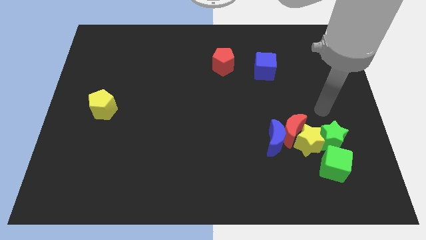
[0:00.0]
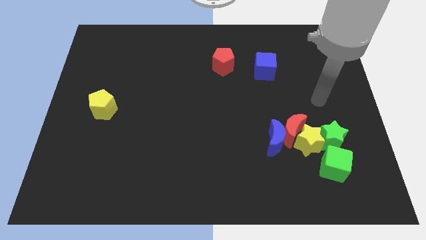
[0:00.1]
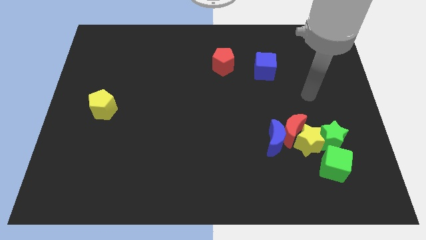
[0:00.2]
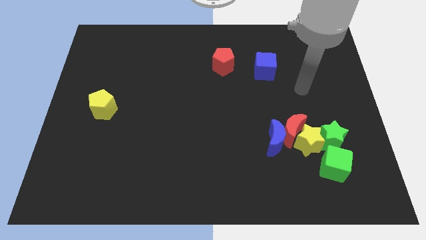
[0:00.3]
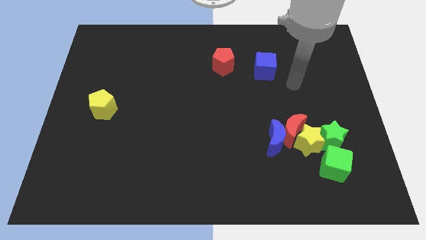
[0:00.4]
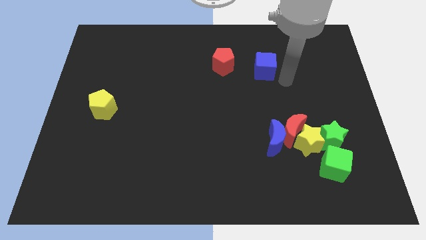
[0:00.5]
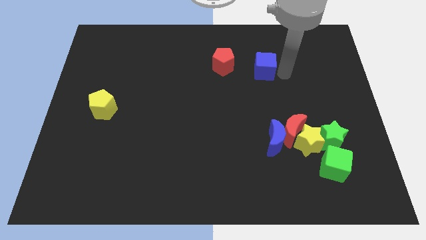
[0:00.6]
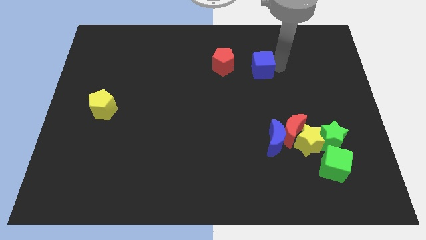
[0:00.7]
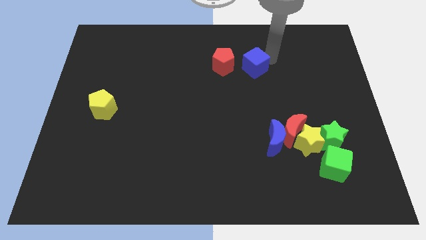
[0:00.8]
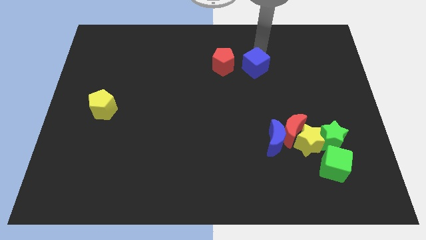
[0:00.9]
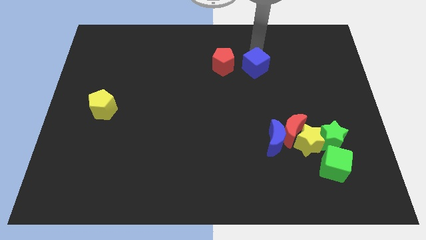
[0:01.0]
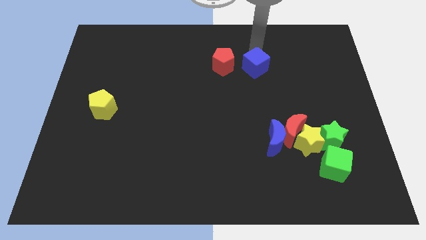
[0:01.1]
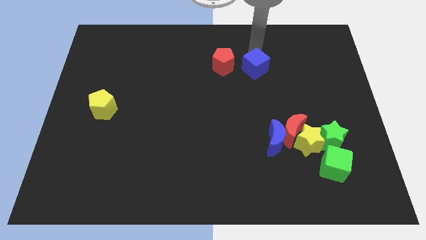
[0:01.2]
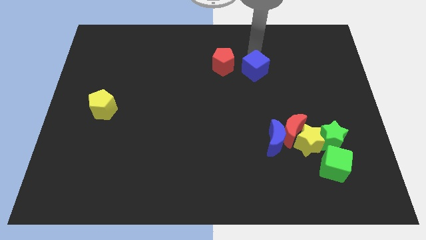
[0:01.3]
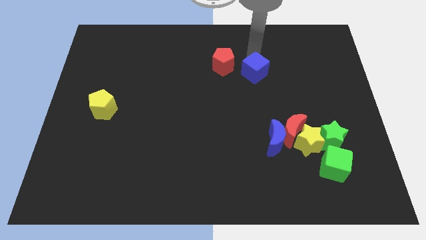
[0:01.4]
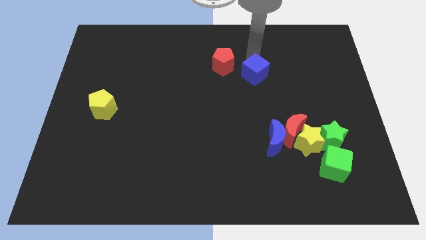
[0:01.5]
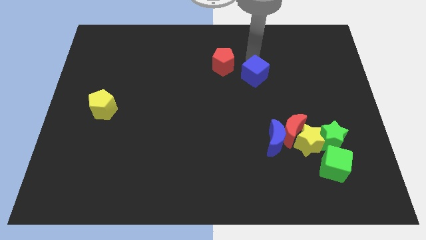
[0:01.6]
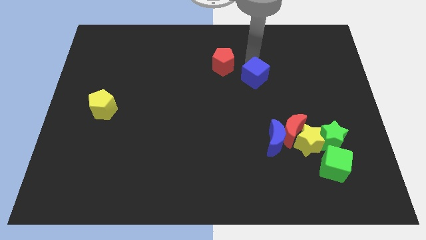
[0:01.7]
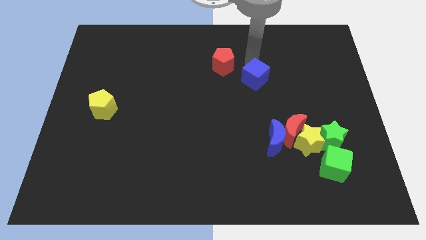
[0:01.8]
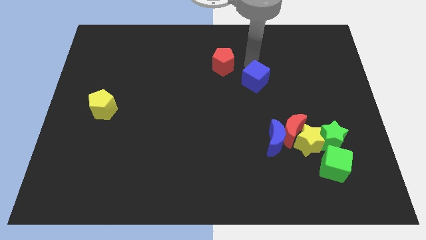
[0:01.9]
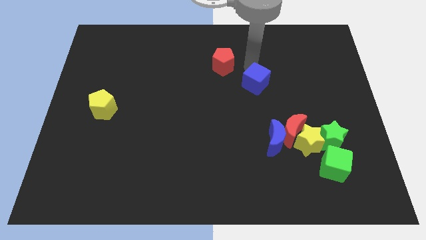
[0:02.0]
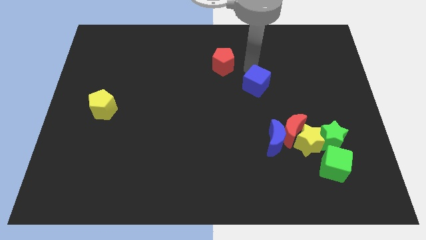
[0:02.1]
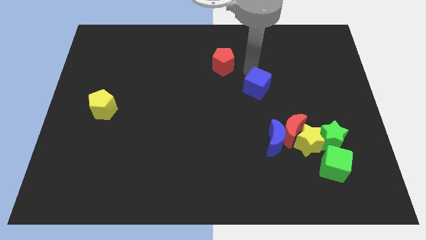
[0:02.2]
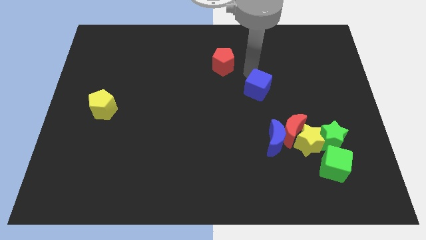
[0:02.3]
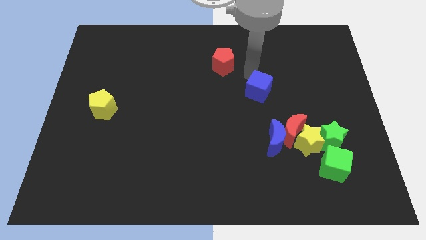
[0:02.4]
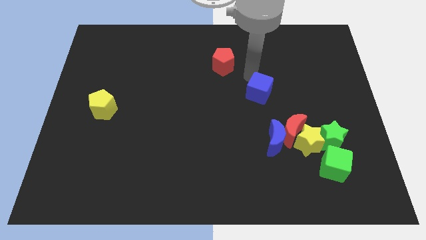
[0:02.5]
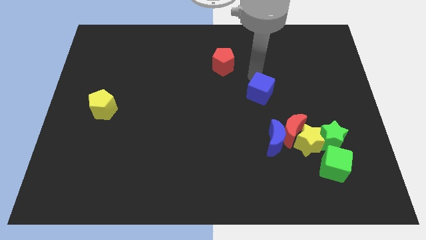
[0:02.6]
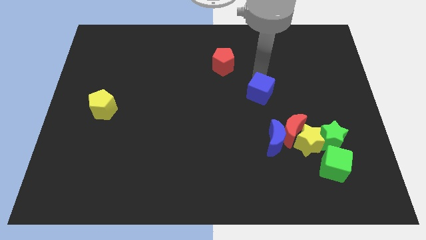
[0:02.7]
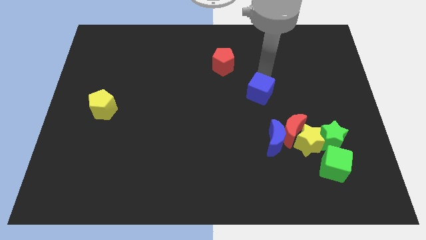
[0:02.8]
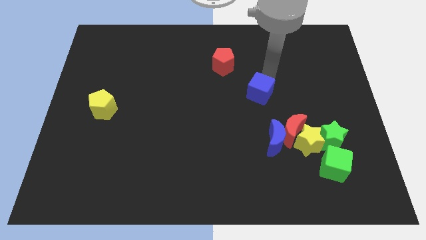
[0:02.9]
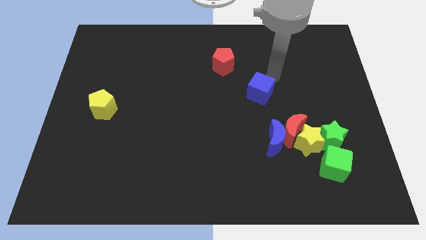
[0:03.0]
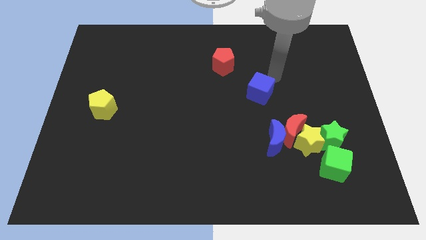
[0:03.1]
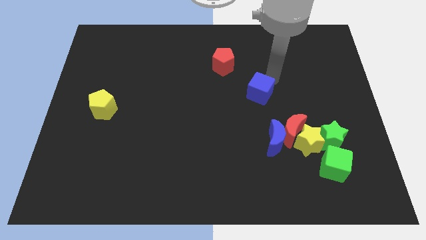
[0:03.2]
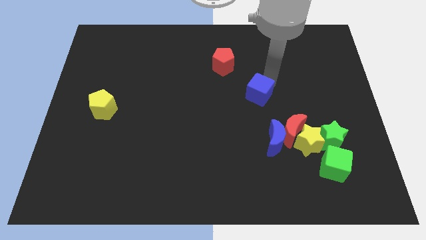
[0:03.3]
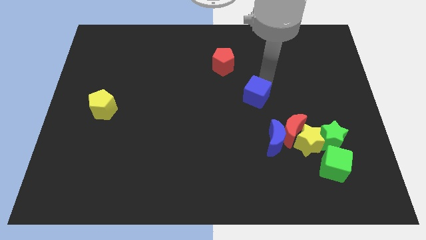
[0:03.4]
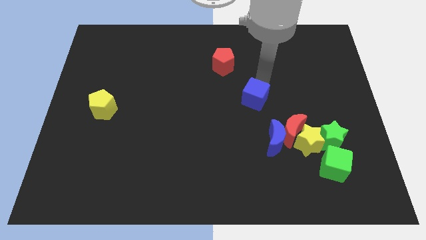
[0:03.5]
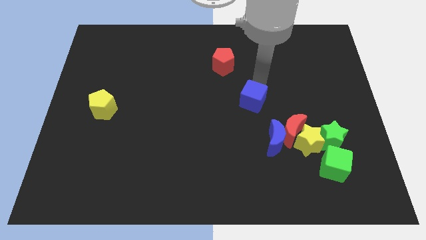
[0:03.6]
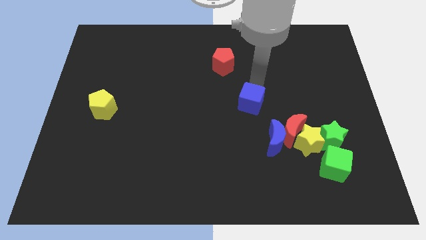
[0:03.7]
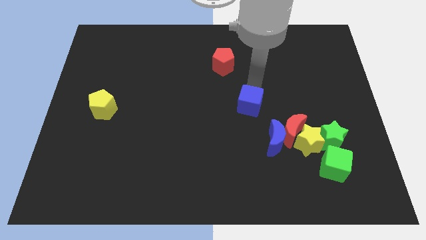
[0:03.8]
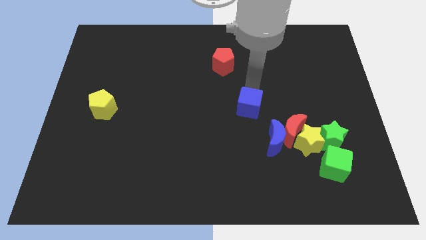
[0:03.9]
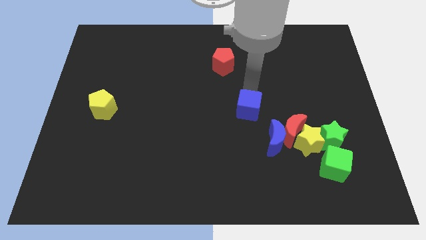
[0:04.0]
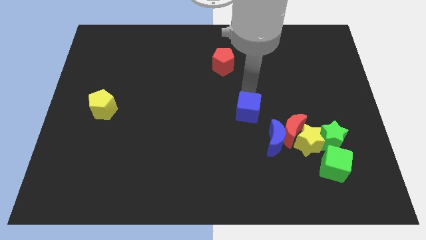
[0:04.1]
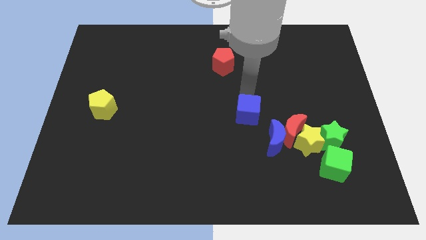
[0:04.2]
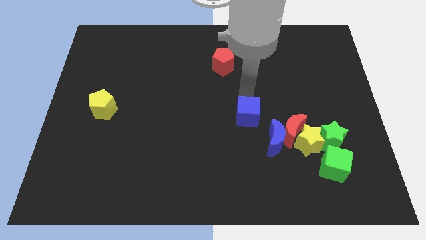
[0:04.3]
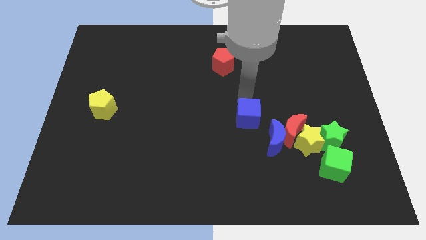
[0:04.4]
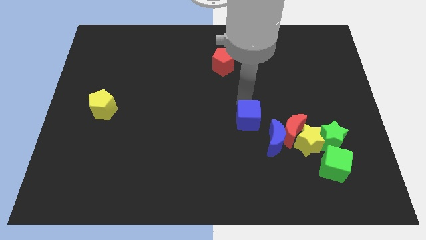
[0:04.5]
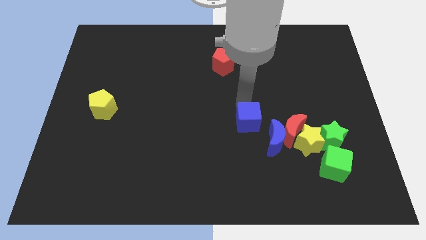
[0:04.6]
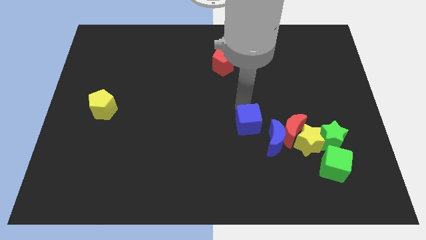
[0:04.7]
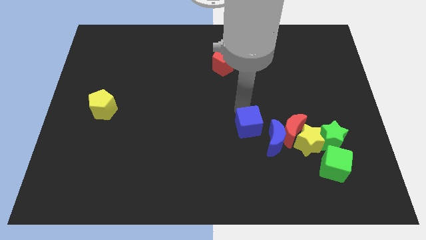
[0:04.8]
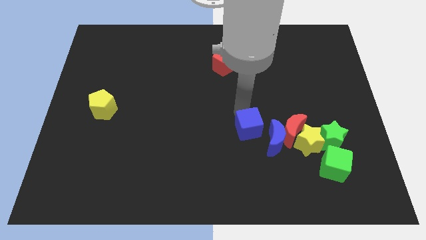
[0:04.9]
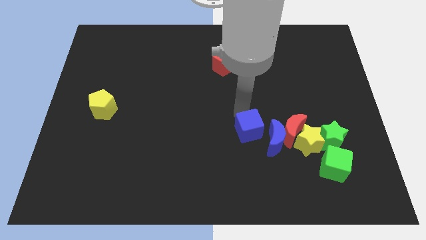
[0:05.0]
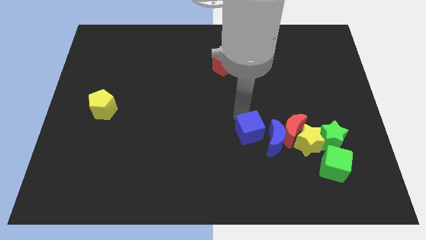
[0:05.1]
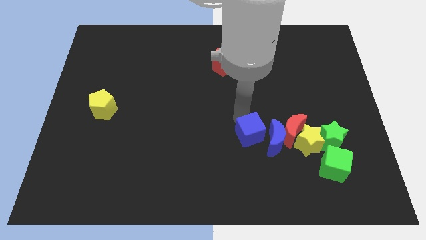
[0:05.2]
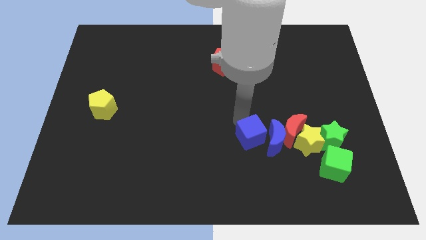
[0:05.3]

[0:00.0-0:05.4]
slide the blue cube diagonally down and to the left of the blue moon

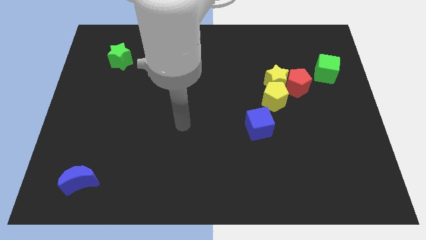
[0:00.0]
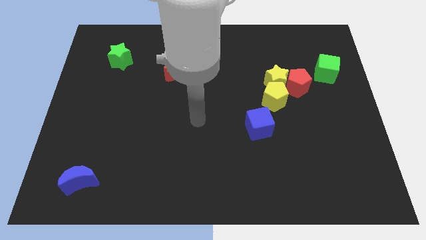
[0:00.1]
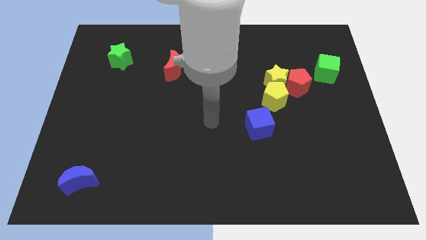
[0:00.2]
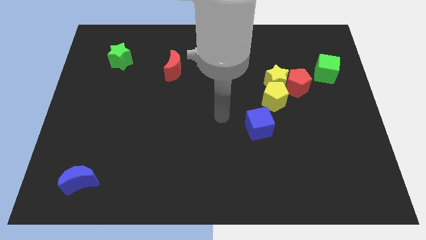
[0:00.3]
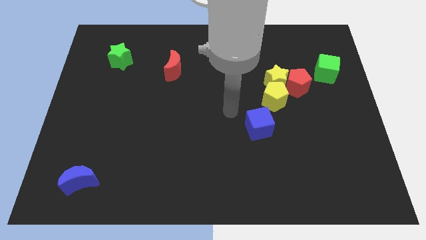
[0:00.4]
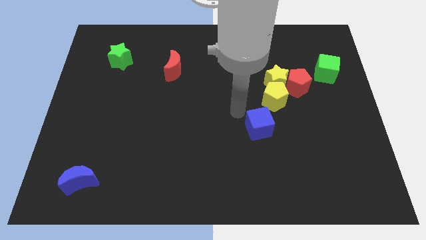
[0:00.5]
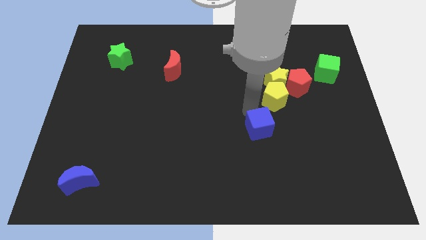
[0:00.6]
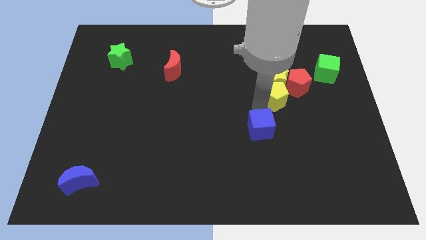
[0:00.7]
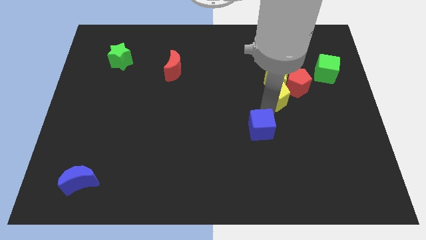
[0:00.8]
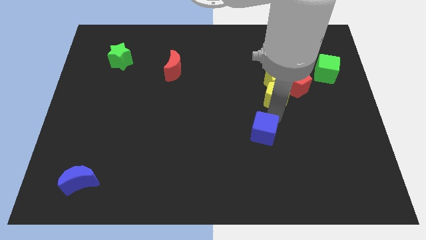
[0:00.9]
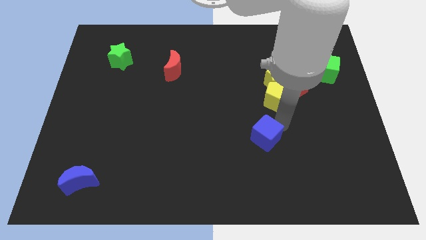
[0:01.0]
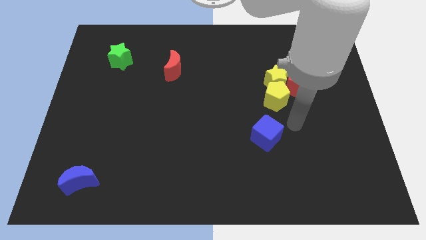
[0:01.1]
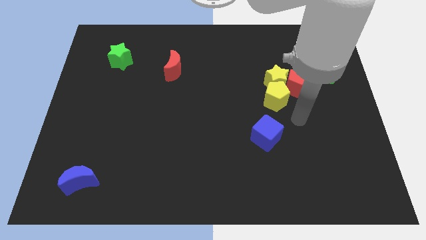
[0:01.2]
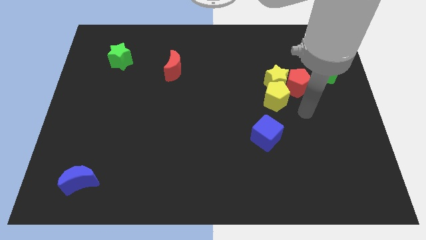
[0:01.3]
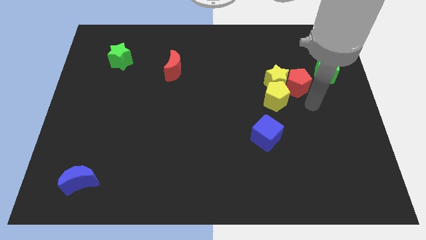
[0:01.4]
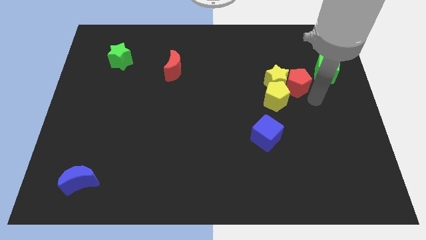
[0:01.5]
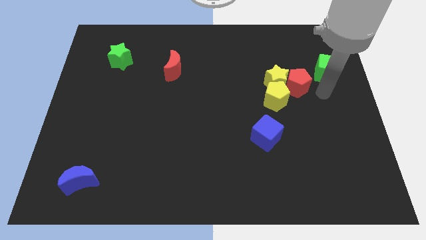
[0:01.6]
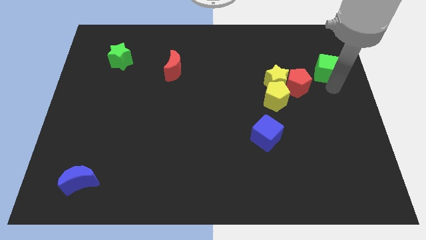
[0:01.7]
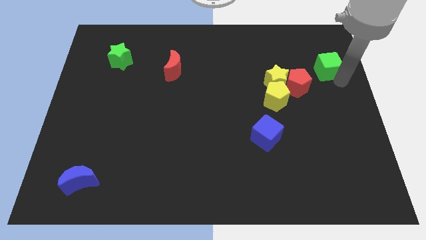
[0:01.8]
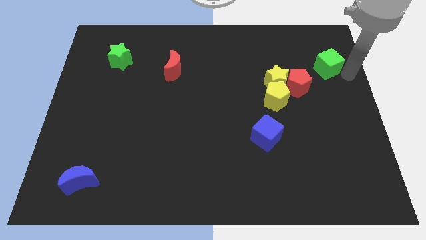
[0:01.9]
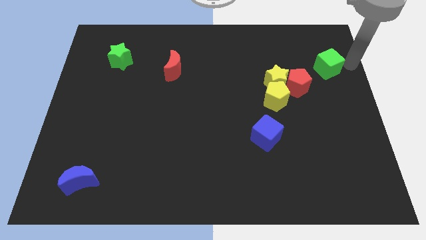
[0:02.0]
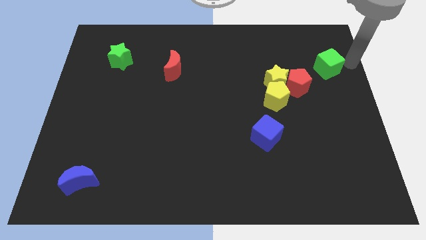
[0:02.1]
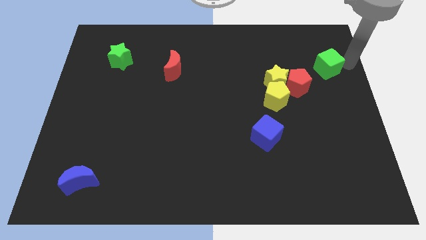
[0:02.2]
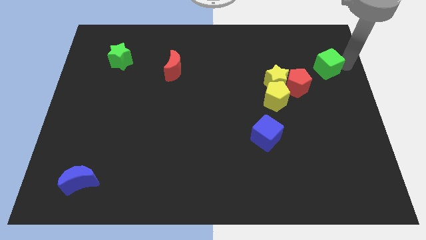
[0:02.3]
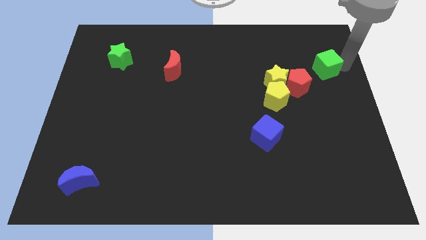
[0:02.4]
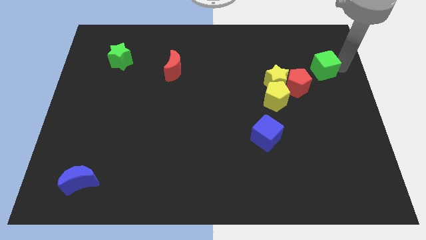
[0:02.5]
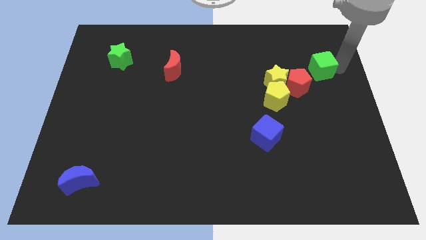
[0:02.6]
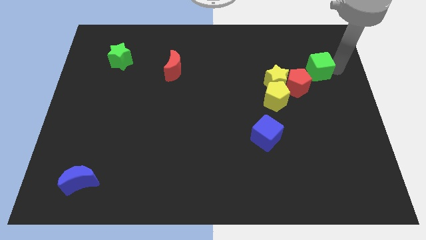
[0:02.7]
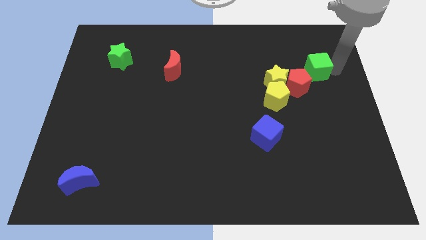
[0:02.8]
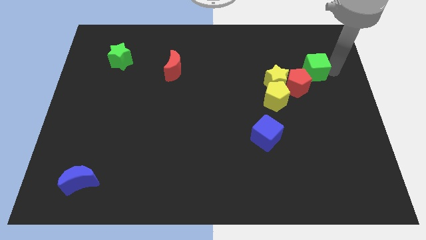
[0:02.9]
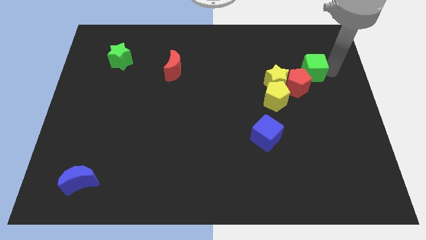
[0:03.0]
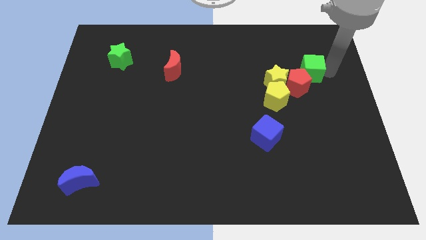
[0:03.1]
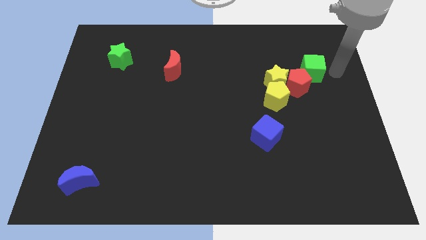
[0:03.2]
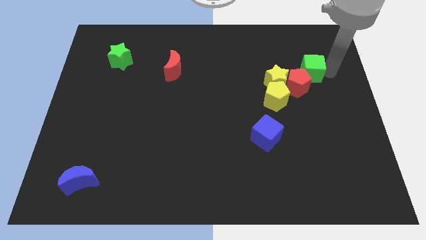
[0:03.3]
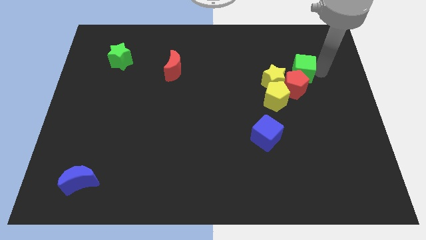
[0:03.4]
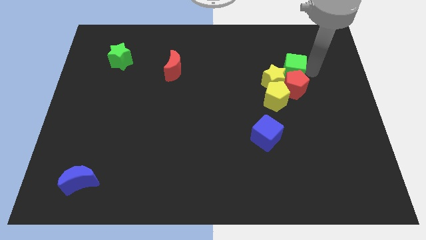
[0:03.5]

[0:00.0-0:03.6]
slide the green cube diagonally up and to the left of the red pentagon
